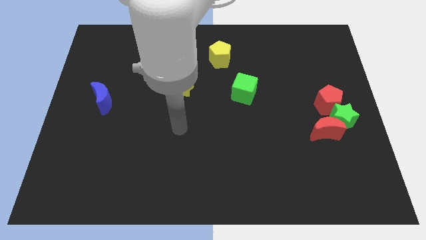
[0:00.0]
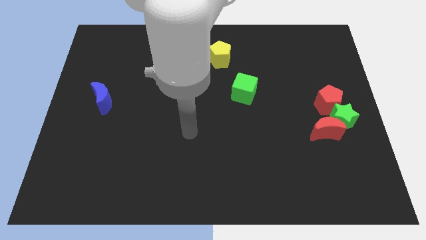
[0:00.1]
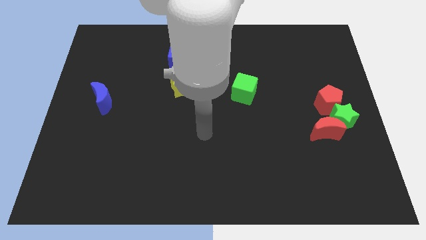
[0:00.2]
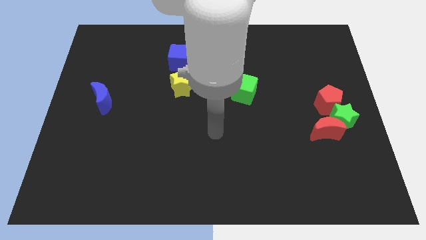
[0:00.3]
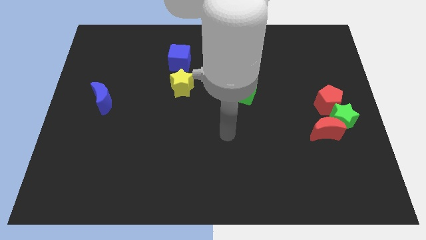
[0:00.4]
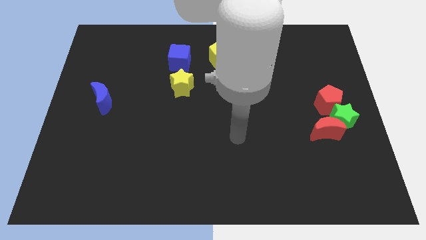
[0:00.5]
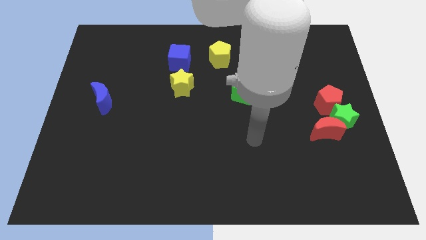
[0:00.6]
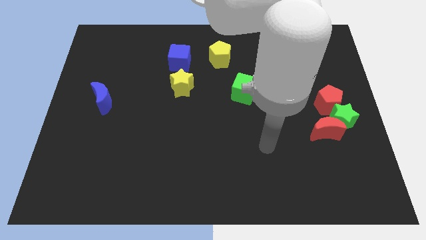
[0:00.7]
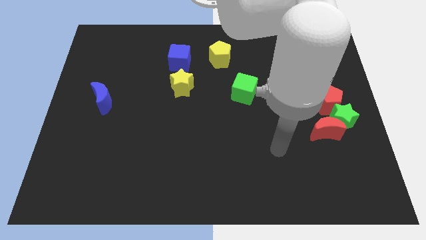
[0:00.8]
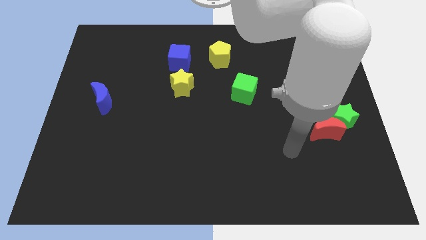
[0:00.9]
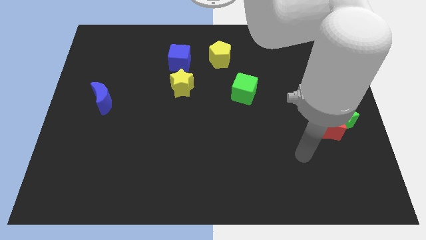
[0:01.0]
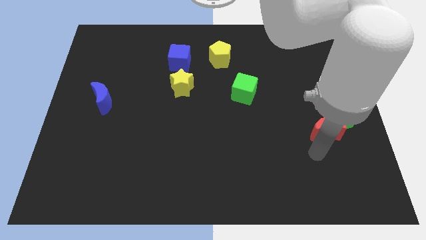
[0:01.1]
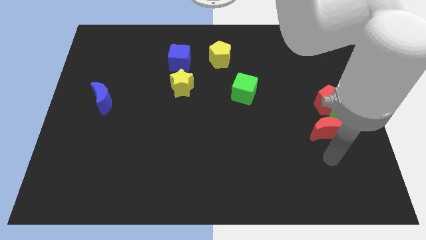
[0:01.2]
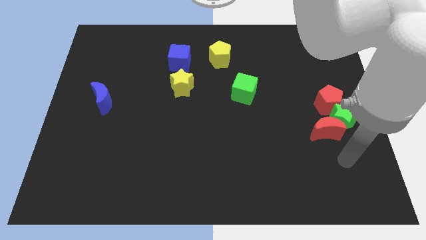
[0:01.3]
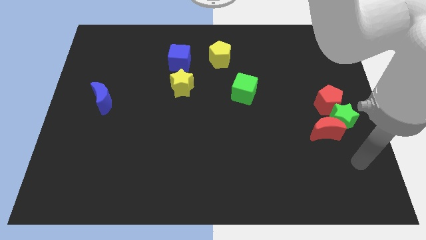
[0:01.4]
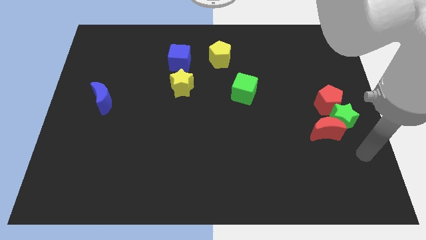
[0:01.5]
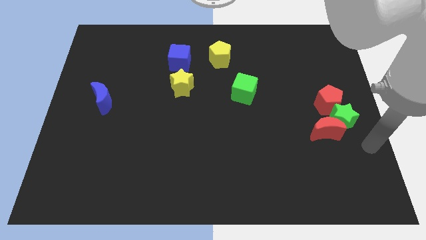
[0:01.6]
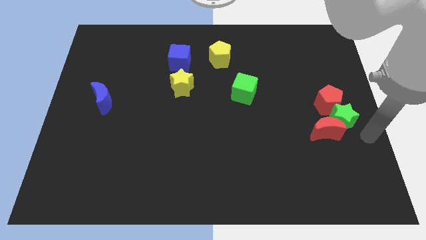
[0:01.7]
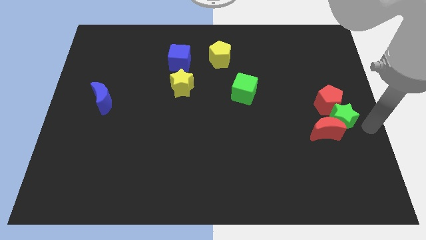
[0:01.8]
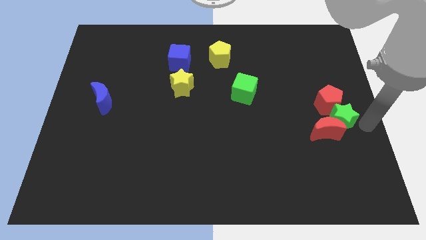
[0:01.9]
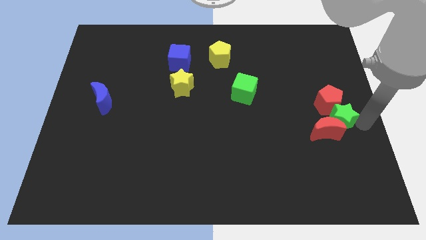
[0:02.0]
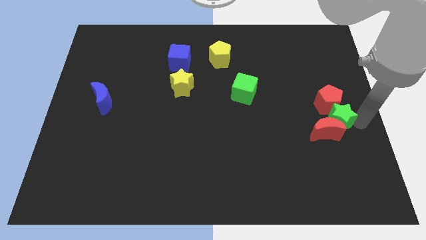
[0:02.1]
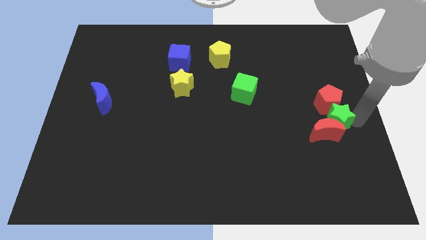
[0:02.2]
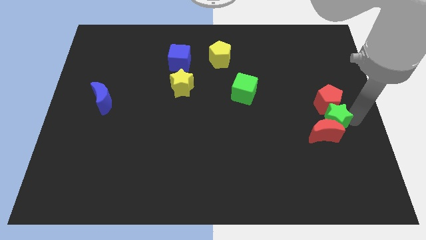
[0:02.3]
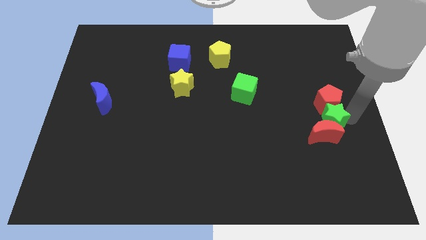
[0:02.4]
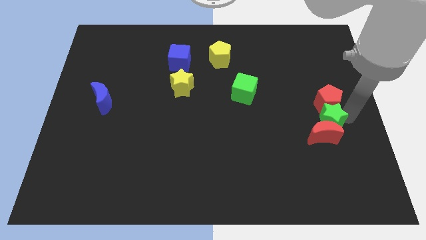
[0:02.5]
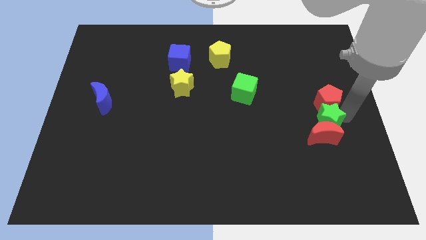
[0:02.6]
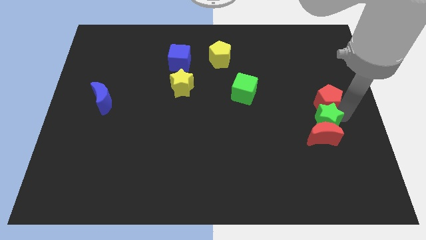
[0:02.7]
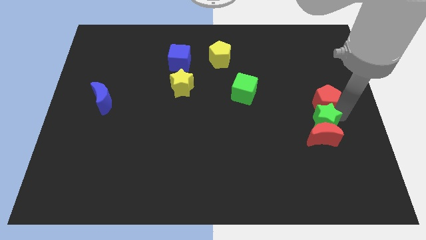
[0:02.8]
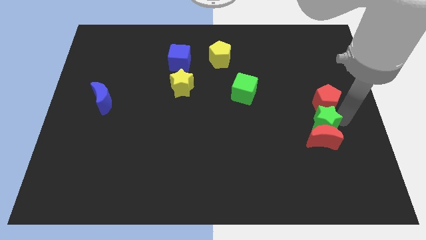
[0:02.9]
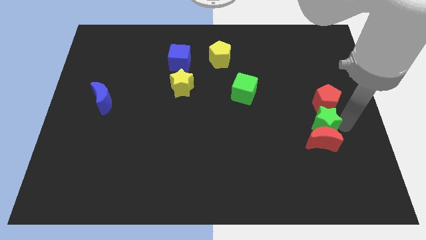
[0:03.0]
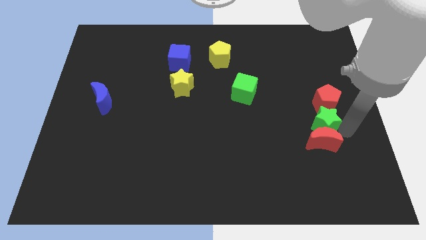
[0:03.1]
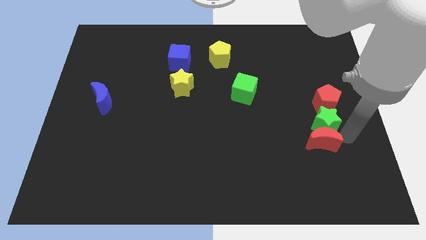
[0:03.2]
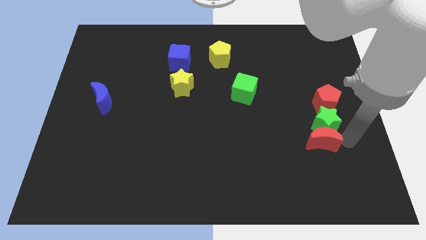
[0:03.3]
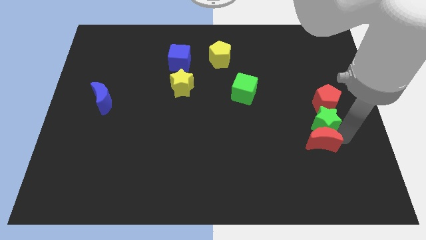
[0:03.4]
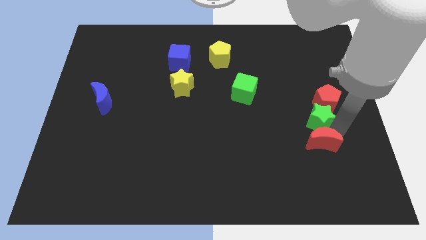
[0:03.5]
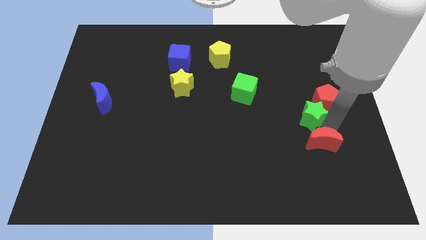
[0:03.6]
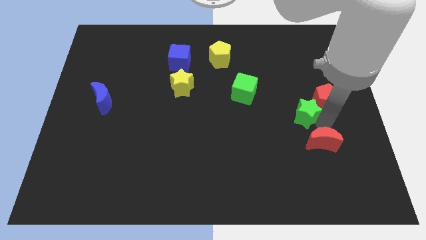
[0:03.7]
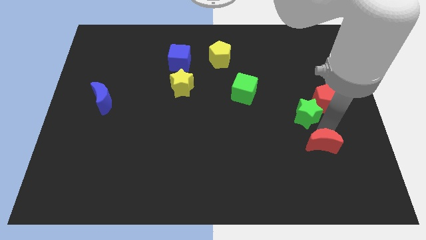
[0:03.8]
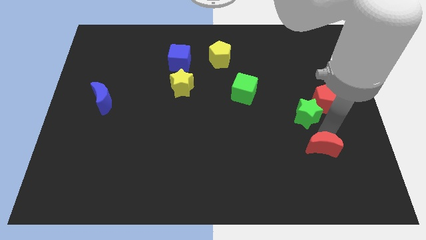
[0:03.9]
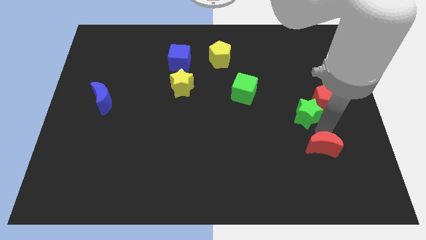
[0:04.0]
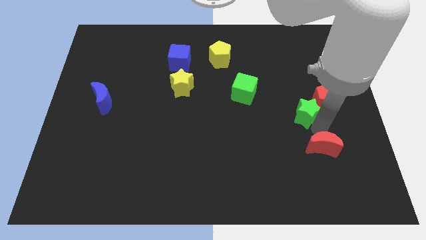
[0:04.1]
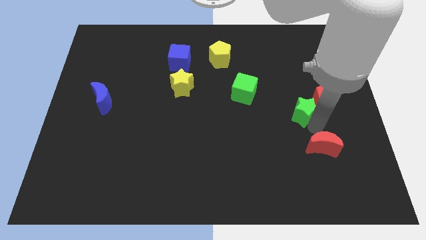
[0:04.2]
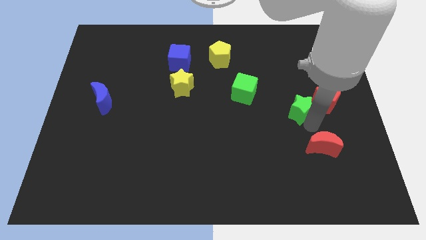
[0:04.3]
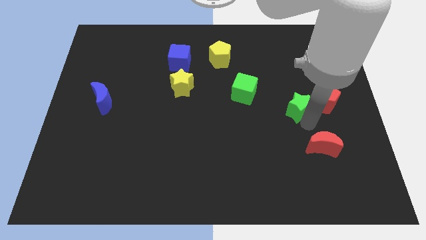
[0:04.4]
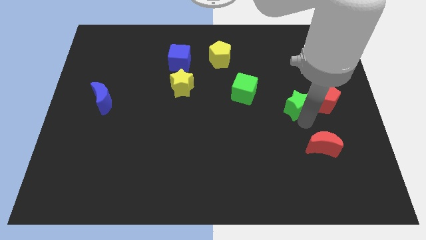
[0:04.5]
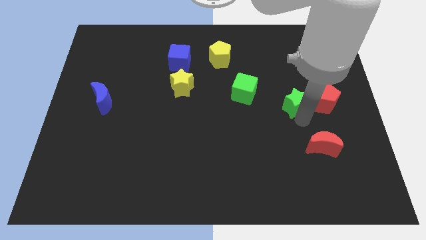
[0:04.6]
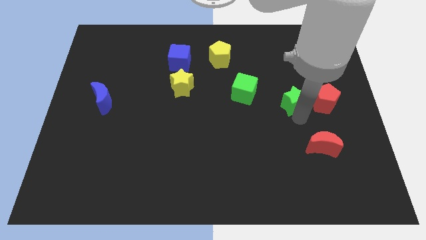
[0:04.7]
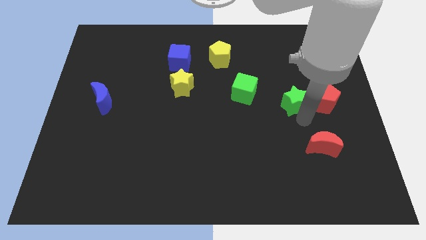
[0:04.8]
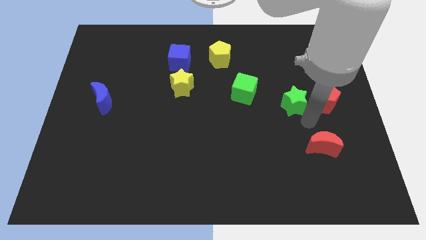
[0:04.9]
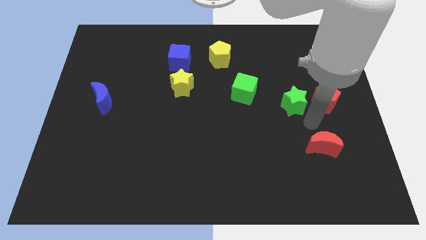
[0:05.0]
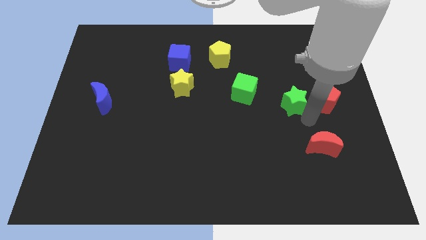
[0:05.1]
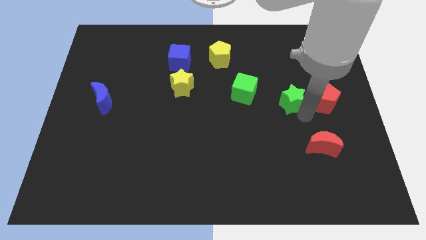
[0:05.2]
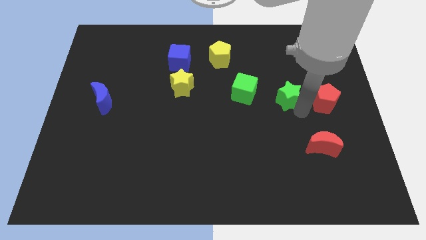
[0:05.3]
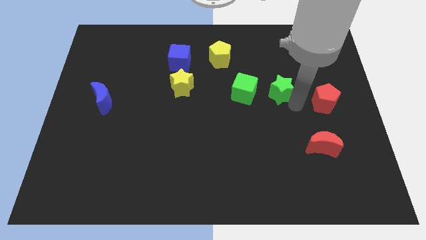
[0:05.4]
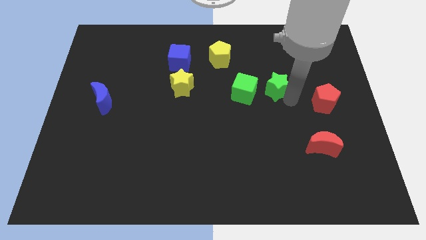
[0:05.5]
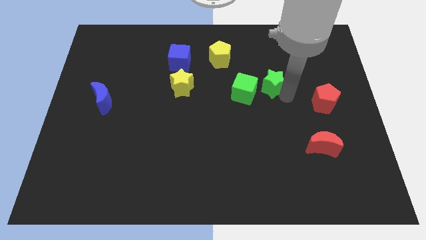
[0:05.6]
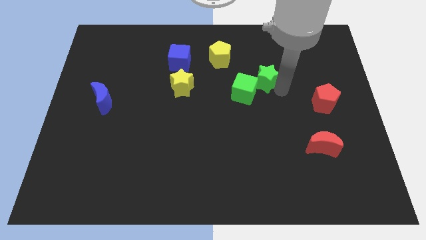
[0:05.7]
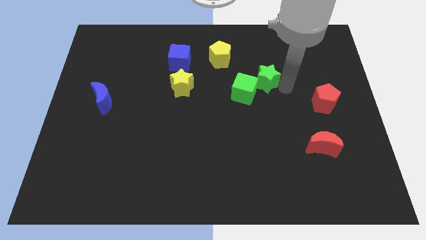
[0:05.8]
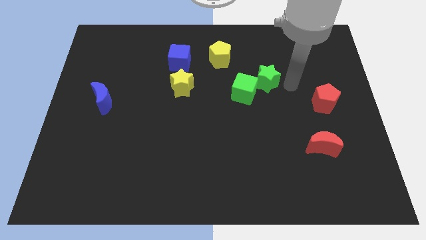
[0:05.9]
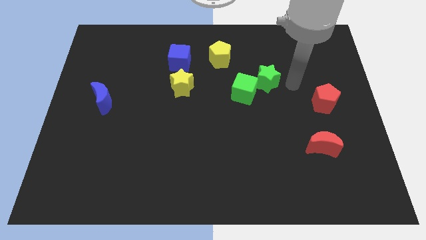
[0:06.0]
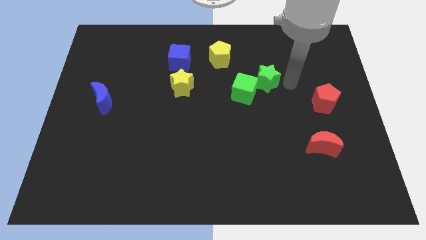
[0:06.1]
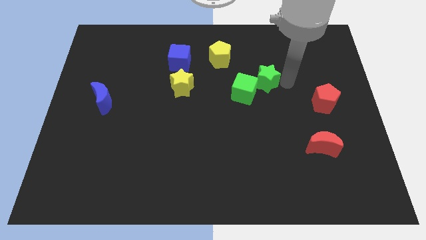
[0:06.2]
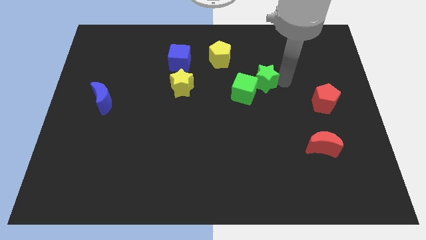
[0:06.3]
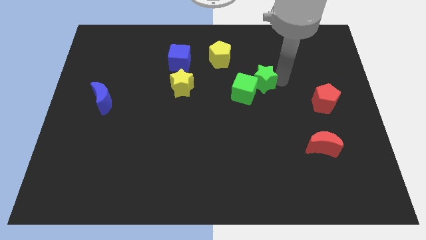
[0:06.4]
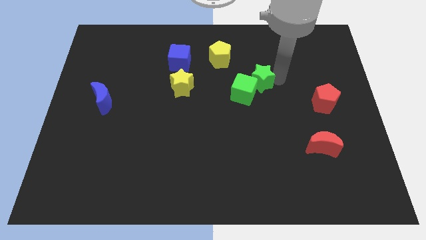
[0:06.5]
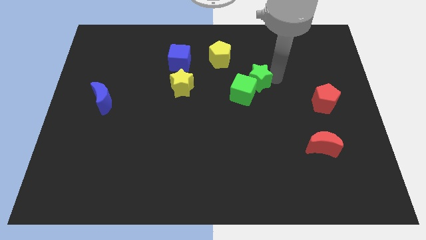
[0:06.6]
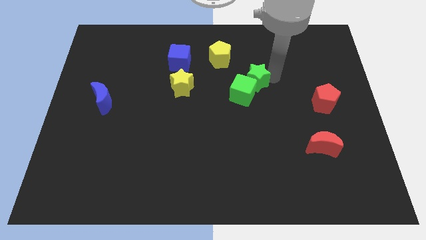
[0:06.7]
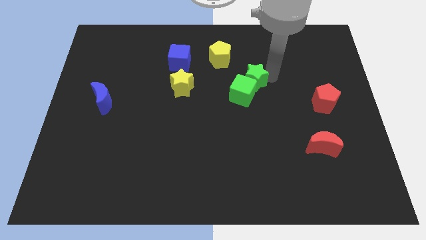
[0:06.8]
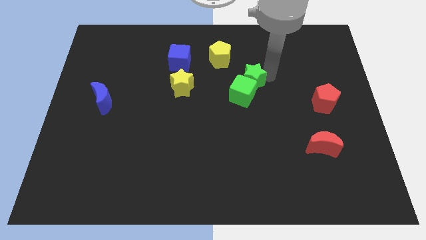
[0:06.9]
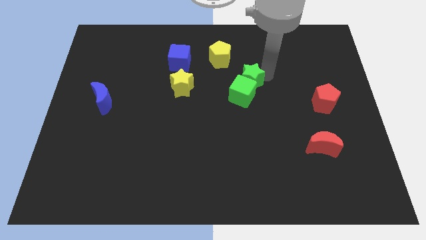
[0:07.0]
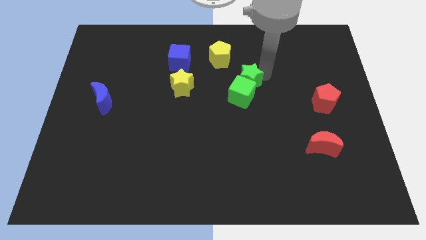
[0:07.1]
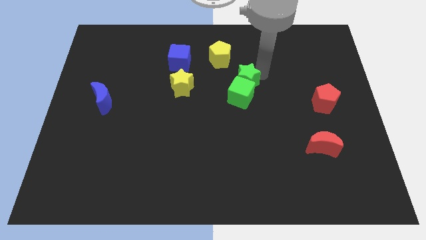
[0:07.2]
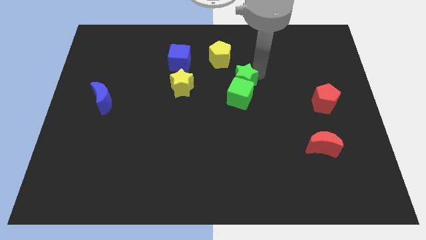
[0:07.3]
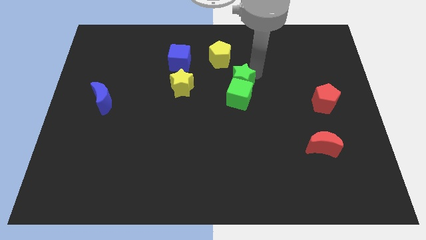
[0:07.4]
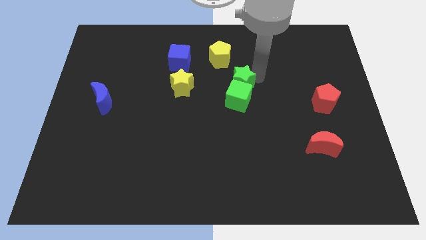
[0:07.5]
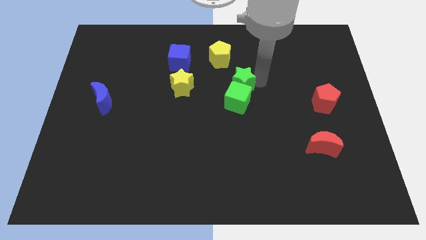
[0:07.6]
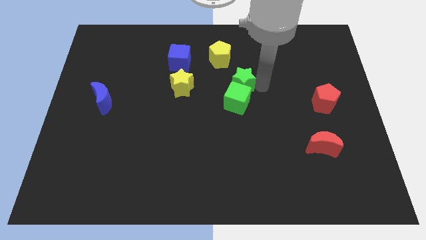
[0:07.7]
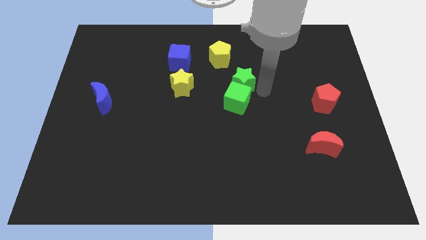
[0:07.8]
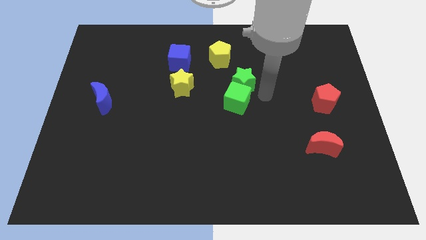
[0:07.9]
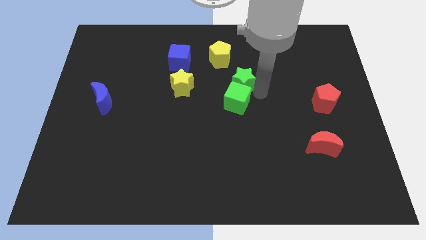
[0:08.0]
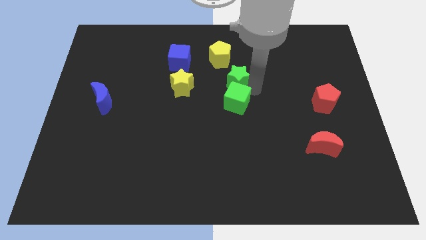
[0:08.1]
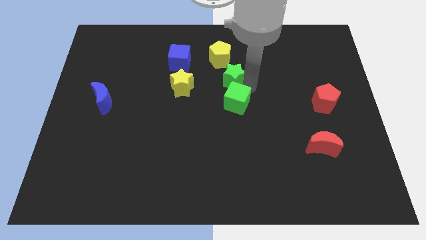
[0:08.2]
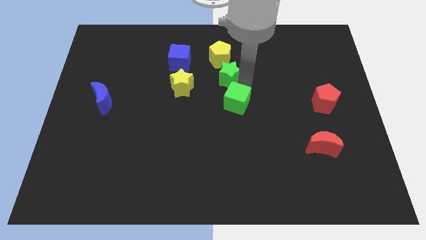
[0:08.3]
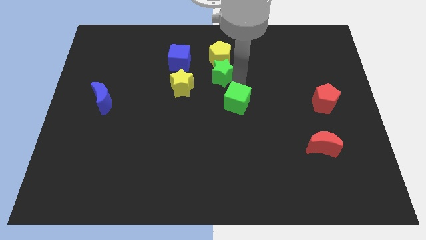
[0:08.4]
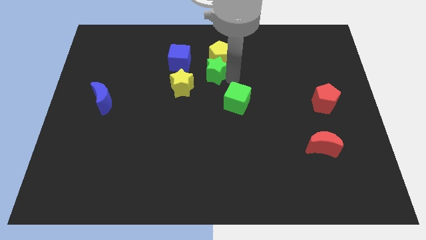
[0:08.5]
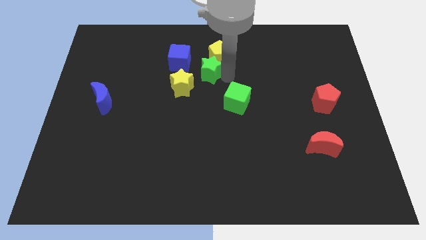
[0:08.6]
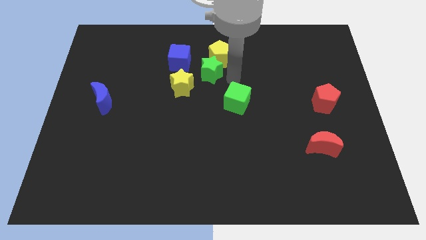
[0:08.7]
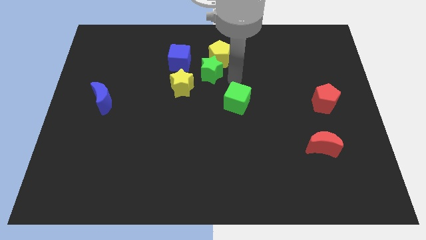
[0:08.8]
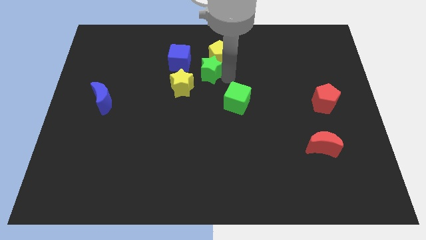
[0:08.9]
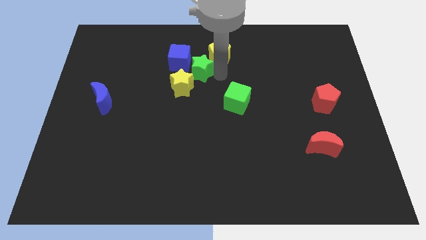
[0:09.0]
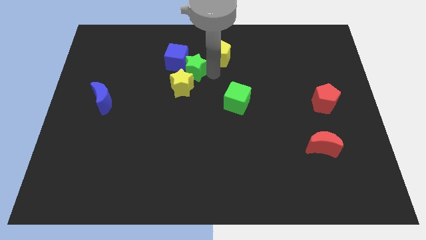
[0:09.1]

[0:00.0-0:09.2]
put the green star close to the blue cube
